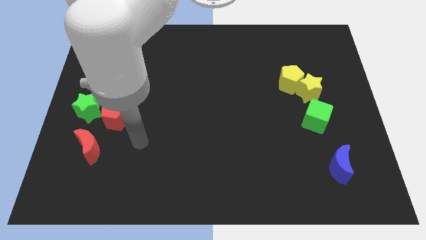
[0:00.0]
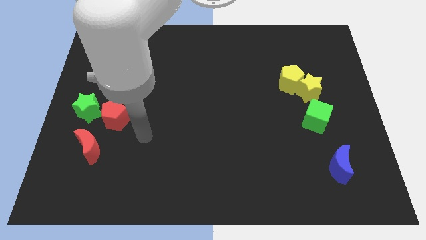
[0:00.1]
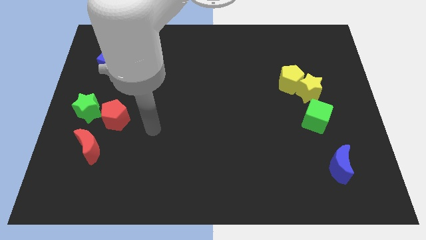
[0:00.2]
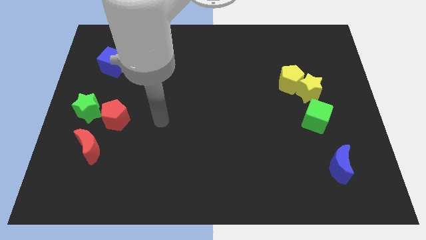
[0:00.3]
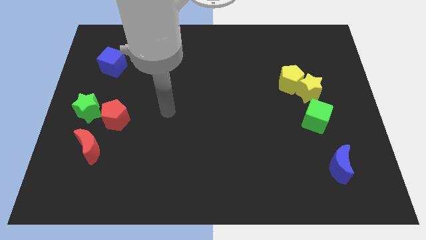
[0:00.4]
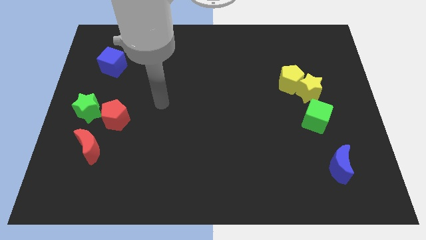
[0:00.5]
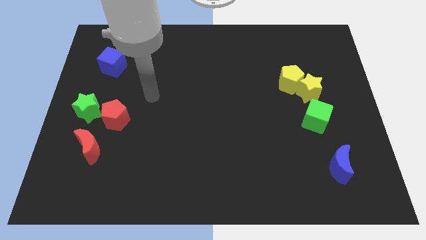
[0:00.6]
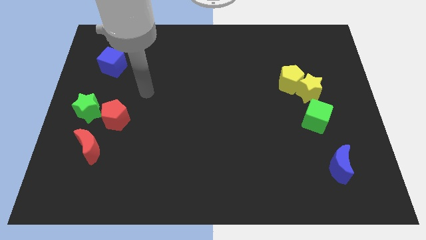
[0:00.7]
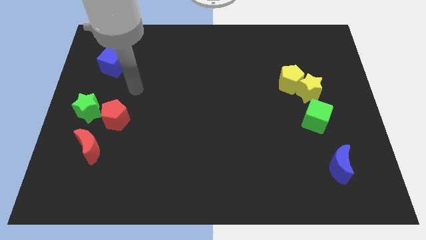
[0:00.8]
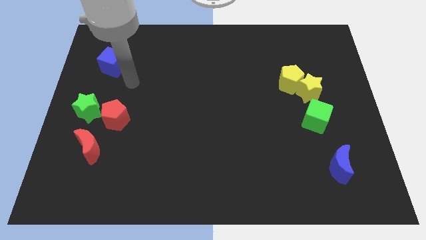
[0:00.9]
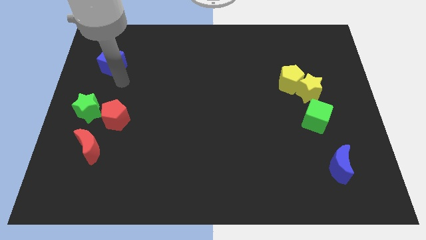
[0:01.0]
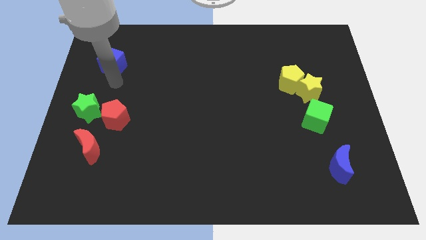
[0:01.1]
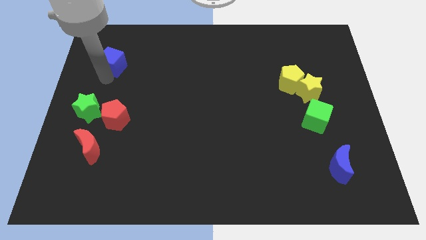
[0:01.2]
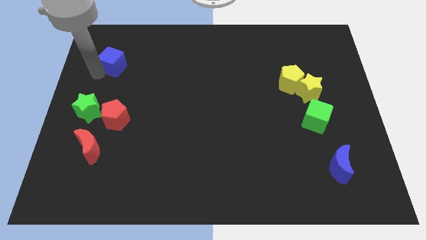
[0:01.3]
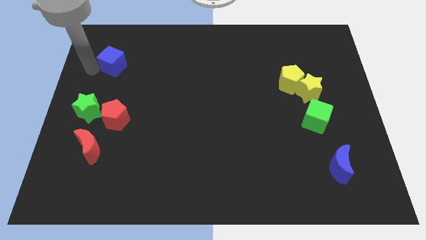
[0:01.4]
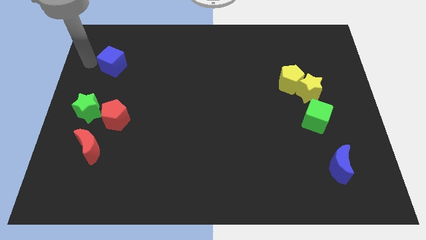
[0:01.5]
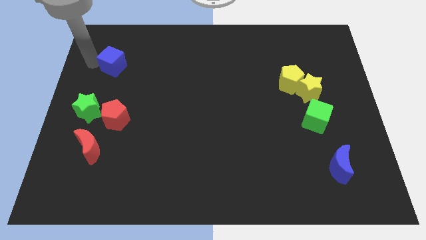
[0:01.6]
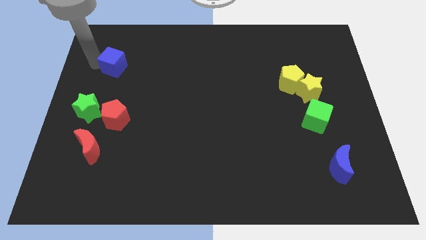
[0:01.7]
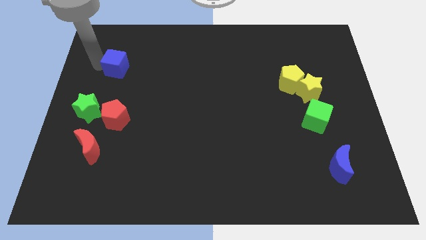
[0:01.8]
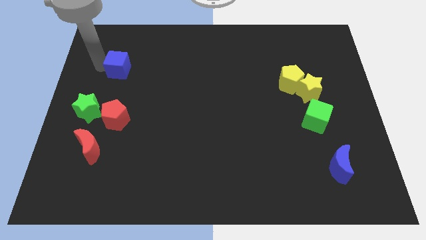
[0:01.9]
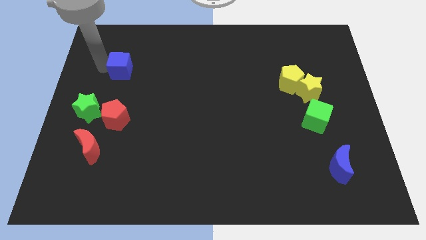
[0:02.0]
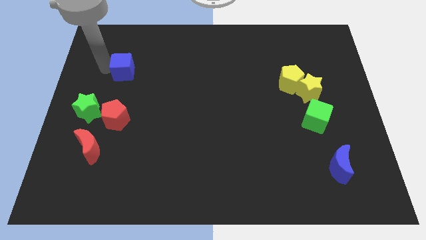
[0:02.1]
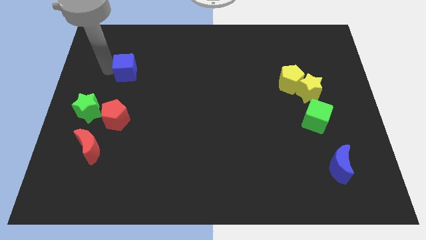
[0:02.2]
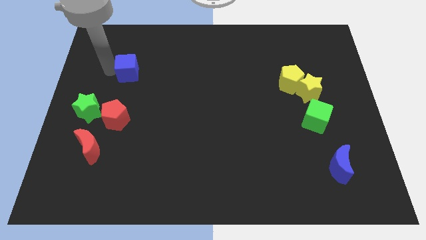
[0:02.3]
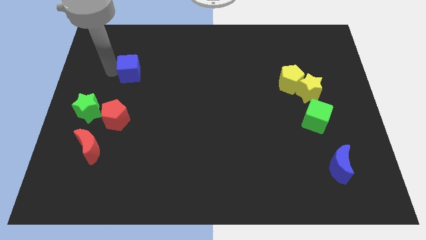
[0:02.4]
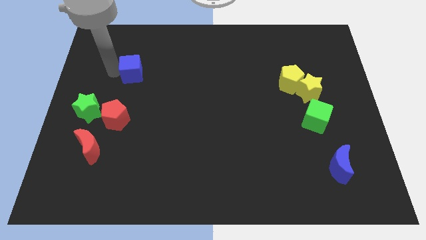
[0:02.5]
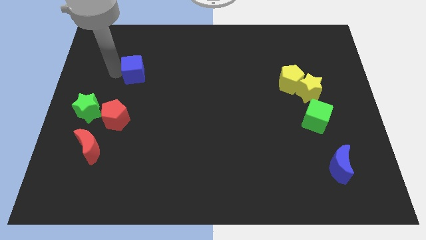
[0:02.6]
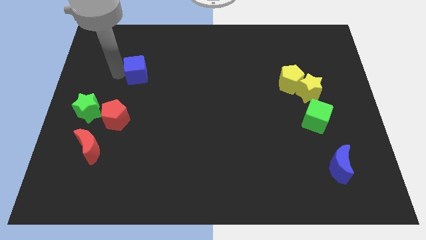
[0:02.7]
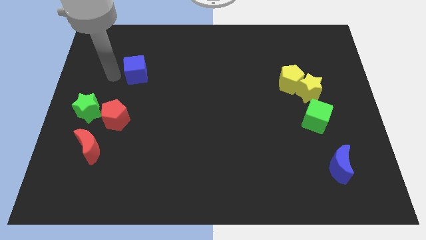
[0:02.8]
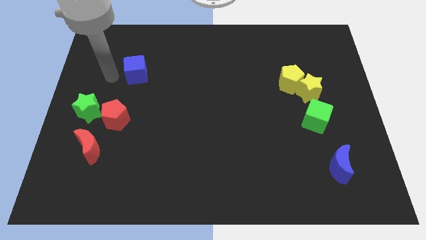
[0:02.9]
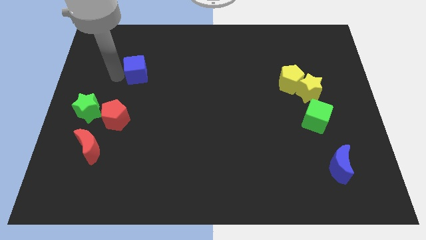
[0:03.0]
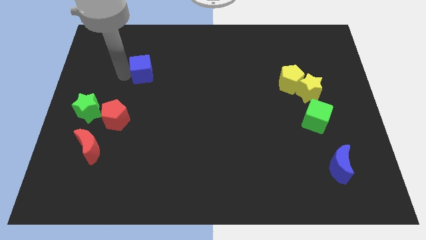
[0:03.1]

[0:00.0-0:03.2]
slightly move the blue cube to the right

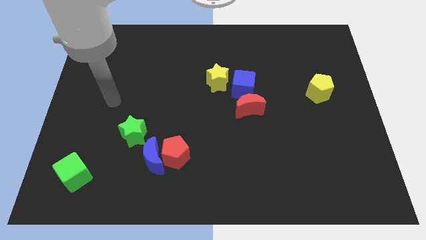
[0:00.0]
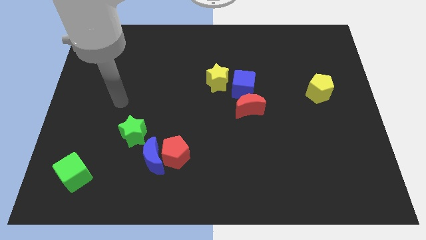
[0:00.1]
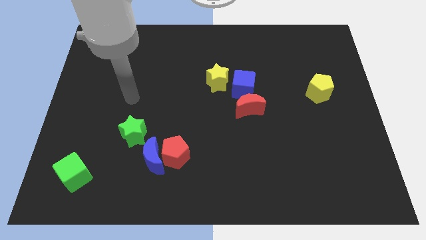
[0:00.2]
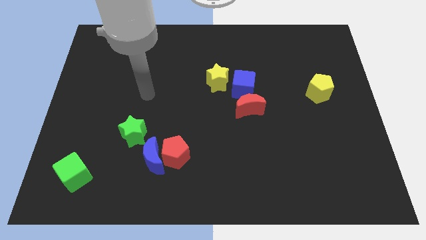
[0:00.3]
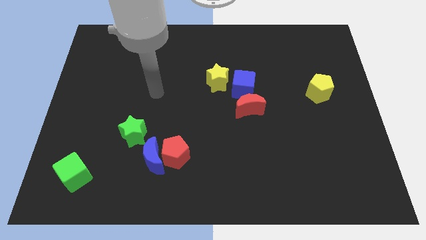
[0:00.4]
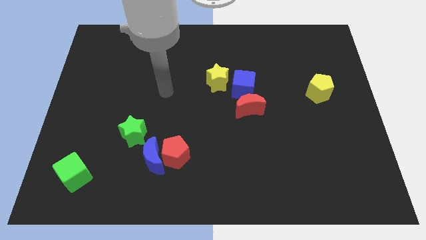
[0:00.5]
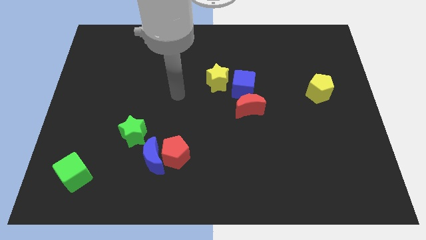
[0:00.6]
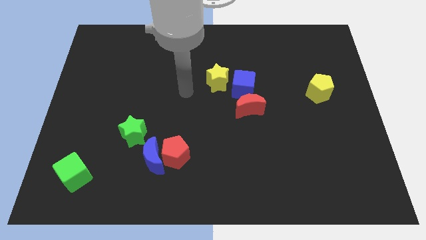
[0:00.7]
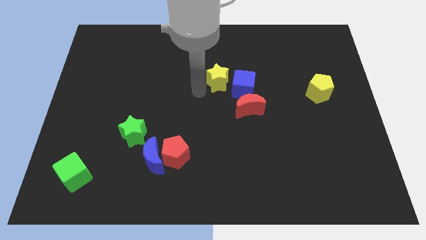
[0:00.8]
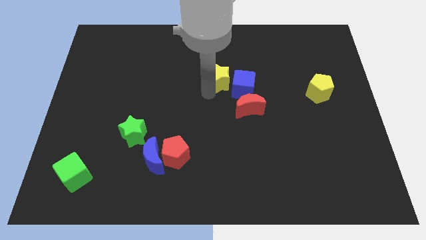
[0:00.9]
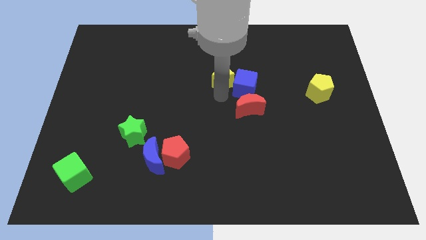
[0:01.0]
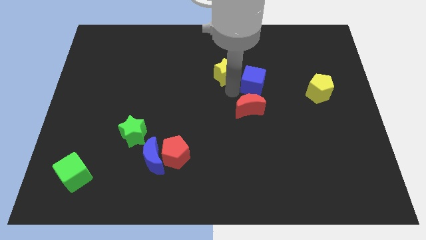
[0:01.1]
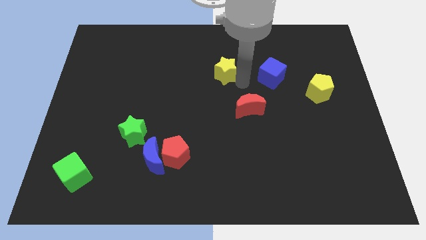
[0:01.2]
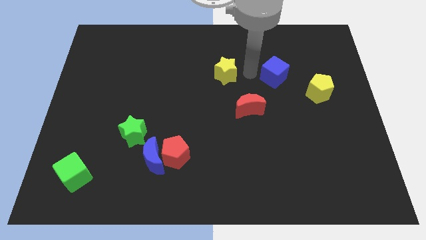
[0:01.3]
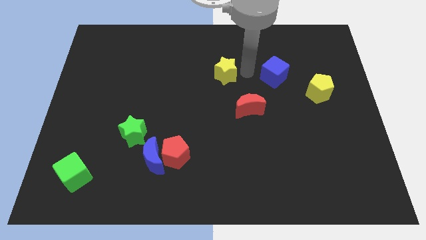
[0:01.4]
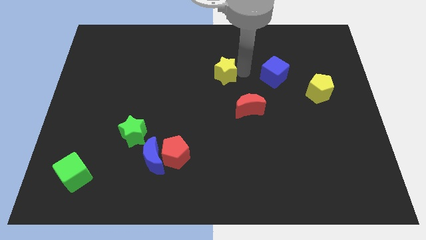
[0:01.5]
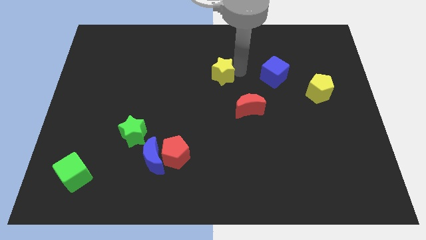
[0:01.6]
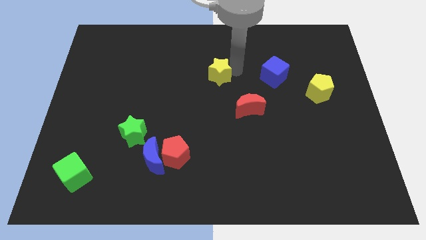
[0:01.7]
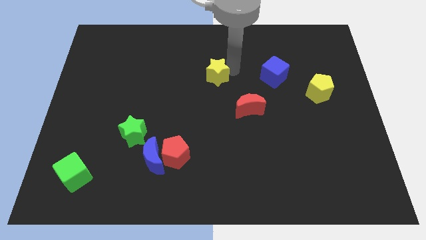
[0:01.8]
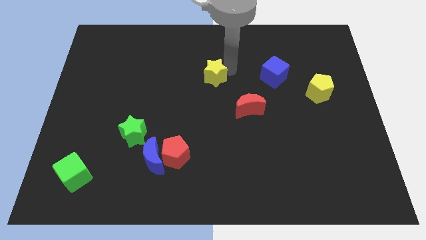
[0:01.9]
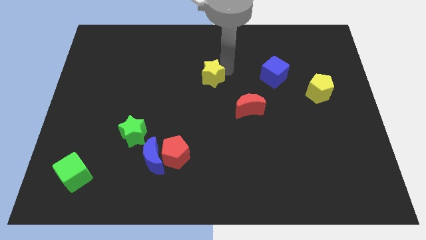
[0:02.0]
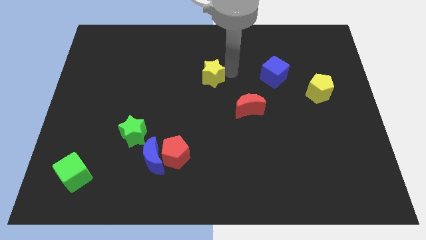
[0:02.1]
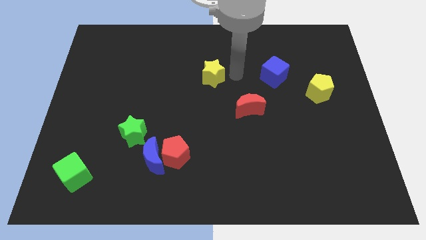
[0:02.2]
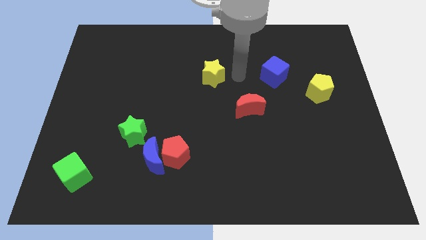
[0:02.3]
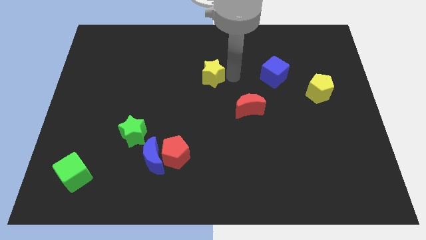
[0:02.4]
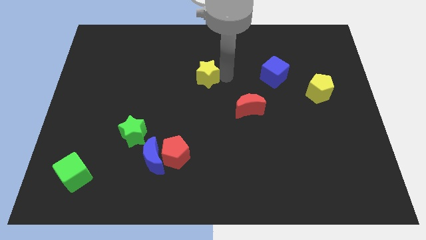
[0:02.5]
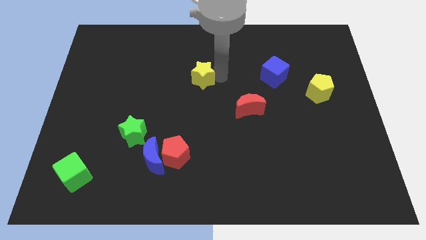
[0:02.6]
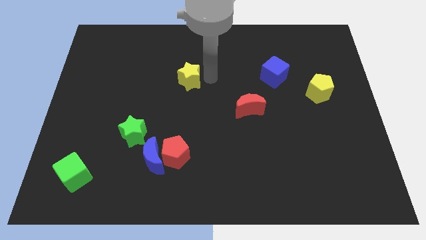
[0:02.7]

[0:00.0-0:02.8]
move the yellow star a little bit to the left

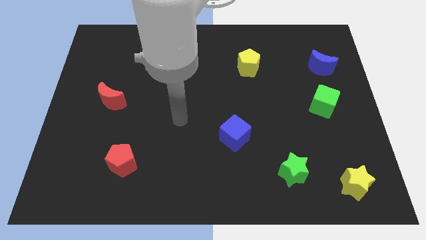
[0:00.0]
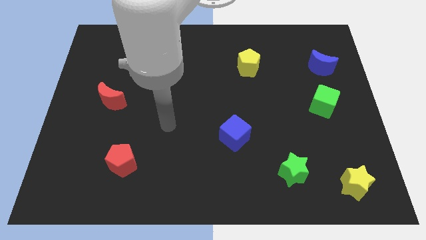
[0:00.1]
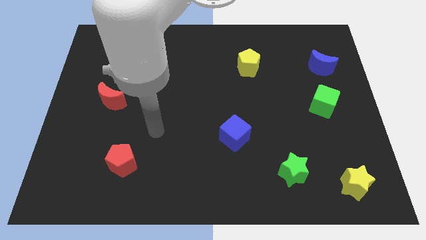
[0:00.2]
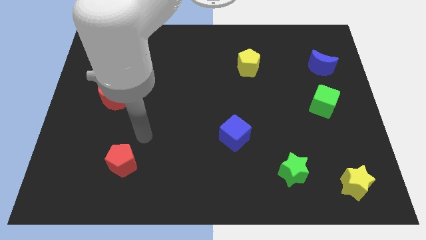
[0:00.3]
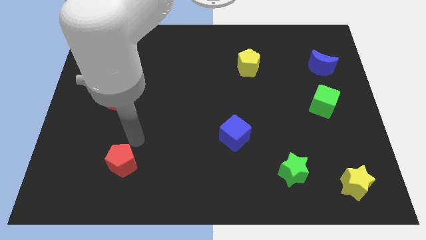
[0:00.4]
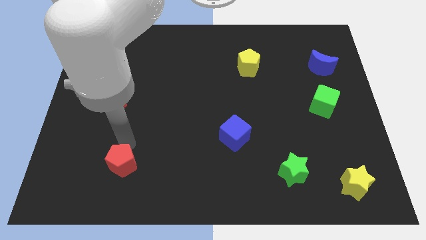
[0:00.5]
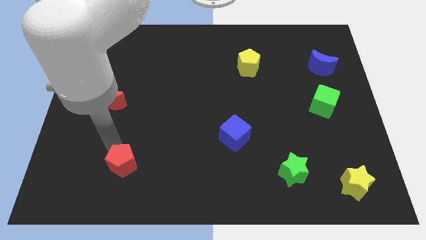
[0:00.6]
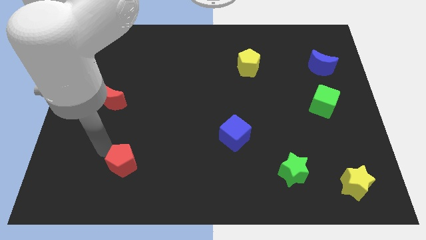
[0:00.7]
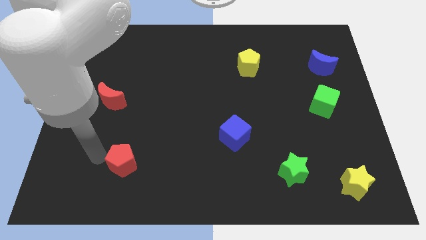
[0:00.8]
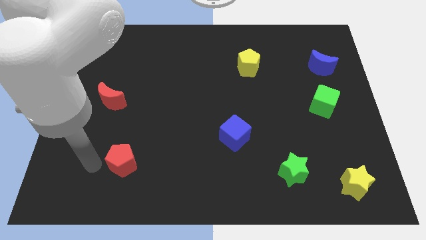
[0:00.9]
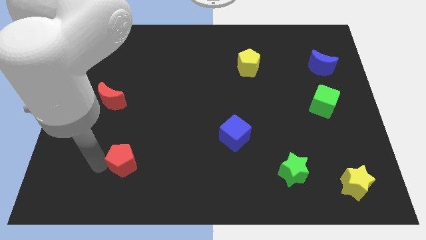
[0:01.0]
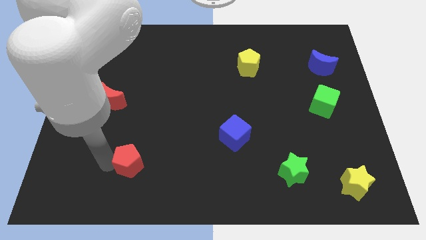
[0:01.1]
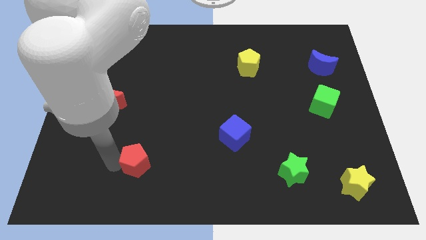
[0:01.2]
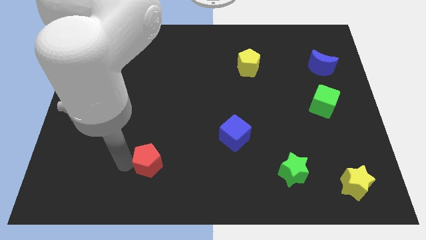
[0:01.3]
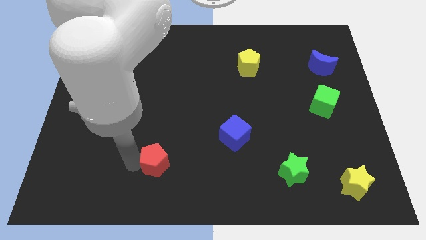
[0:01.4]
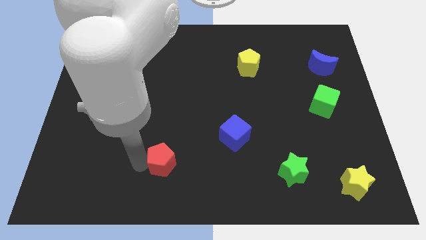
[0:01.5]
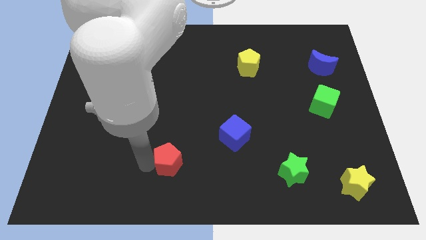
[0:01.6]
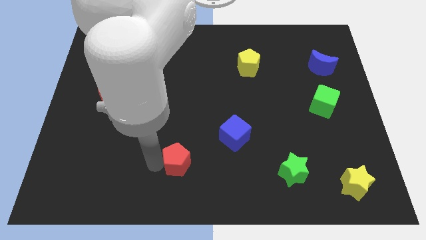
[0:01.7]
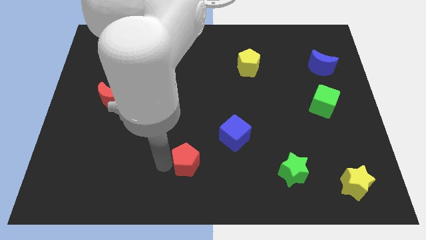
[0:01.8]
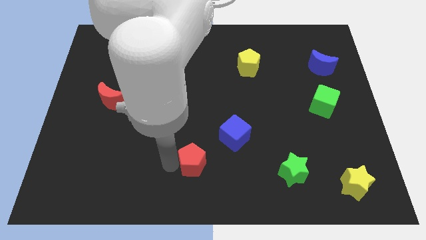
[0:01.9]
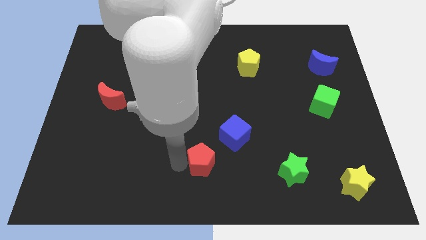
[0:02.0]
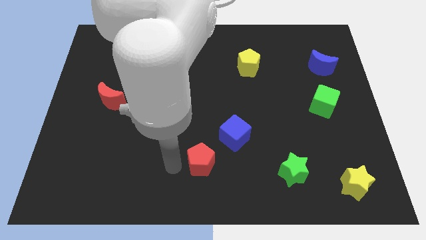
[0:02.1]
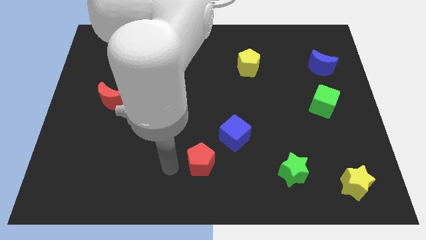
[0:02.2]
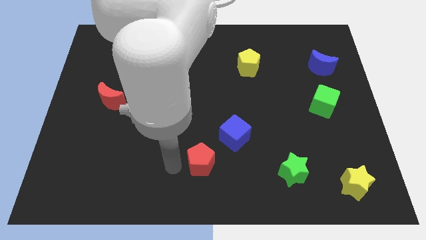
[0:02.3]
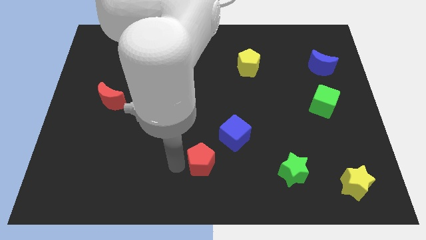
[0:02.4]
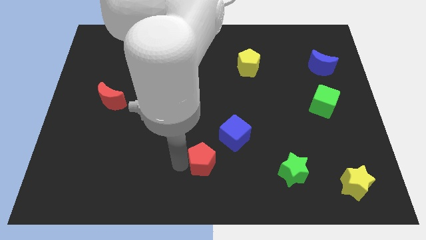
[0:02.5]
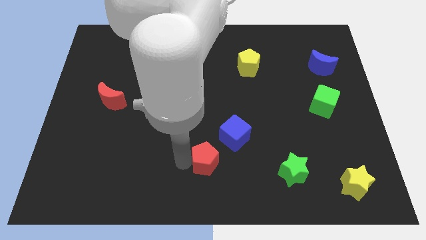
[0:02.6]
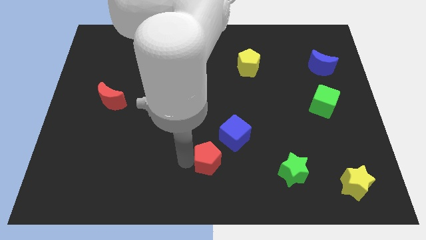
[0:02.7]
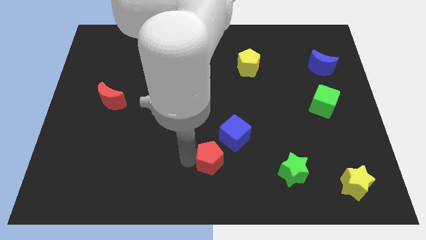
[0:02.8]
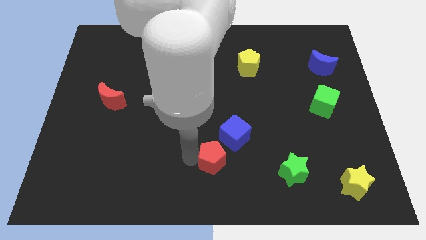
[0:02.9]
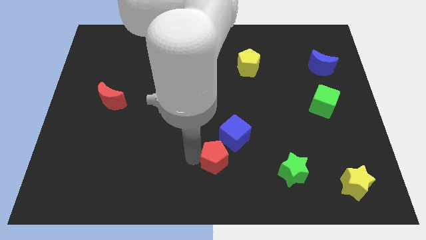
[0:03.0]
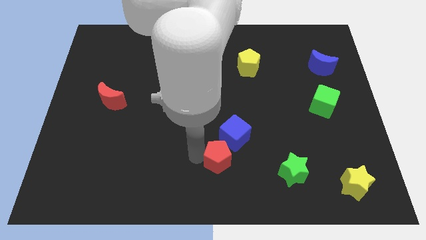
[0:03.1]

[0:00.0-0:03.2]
slide the red pentagon to the right
